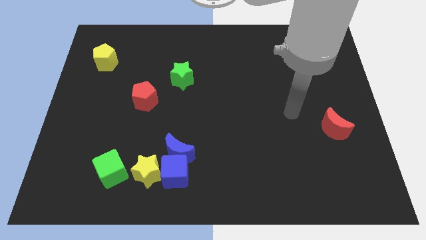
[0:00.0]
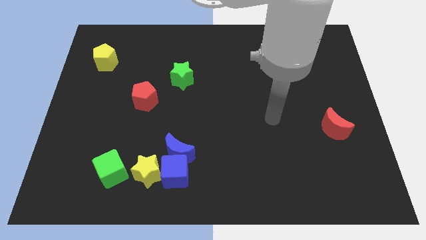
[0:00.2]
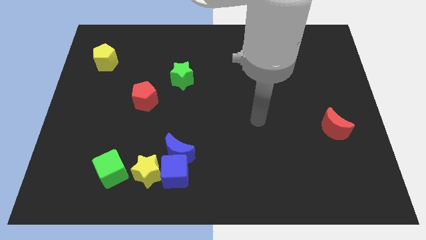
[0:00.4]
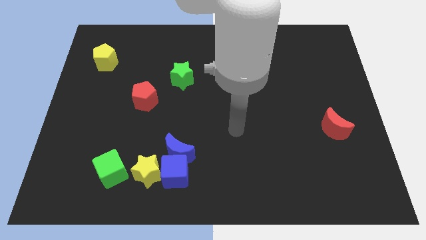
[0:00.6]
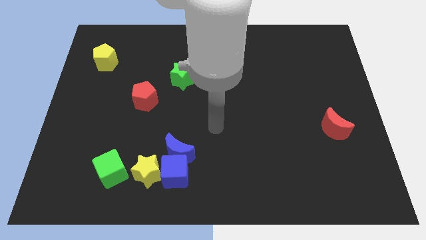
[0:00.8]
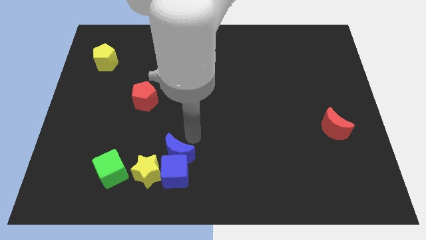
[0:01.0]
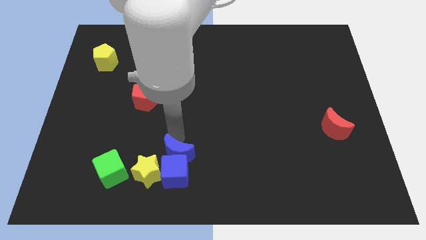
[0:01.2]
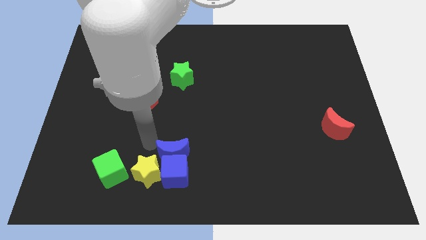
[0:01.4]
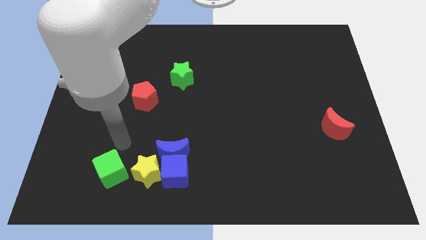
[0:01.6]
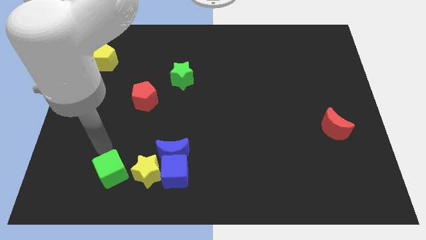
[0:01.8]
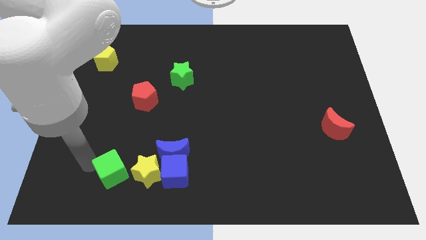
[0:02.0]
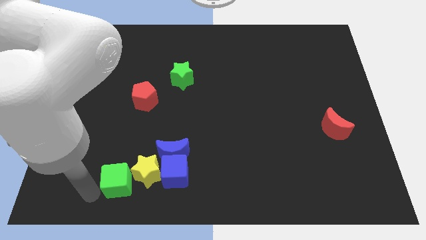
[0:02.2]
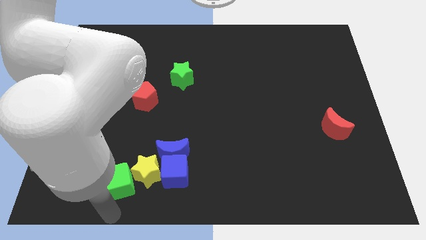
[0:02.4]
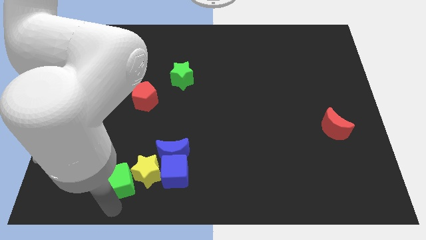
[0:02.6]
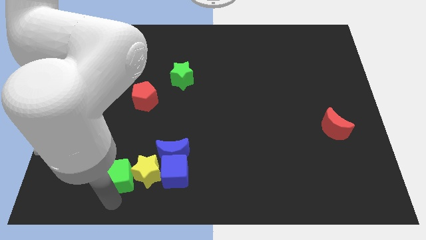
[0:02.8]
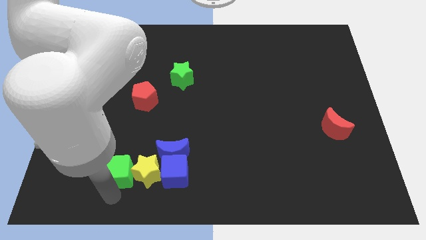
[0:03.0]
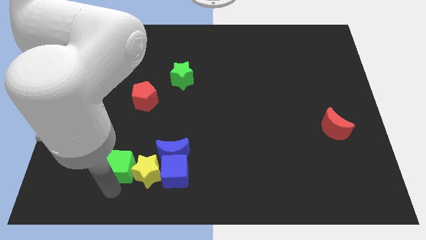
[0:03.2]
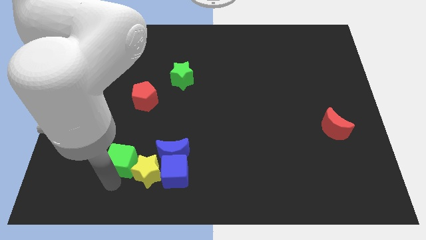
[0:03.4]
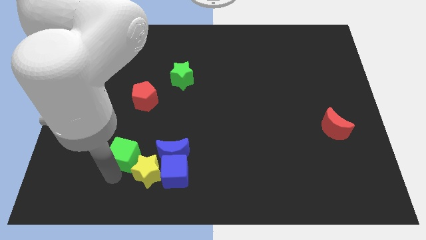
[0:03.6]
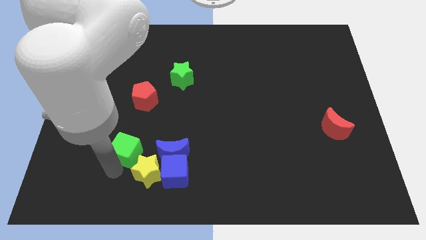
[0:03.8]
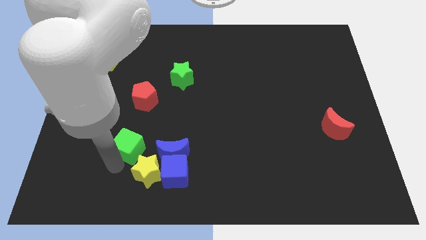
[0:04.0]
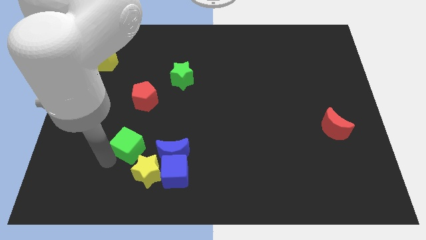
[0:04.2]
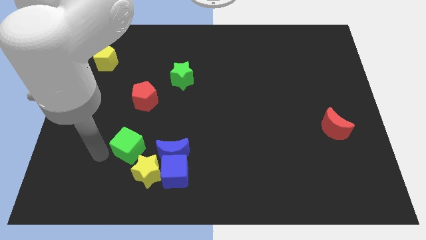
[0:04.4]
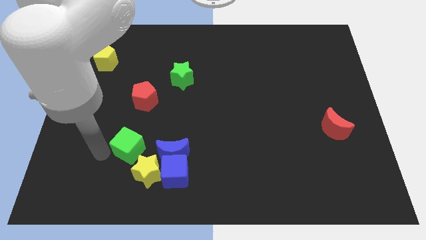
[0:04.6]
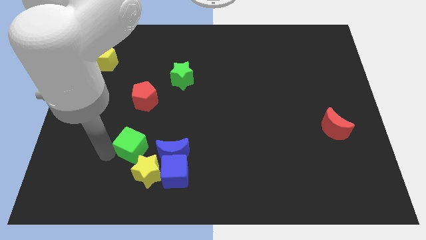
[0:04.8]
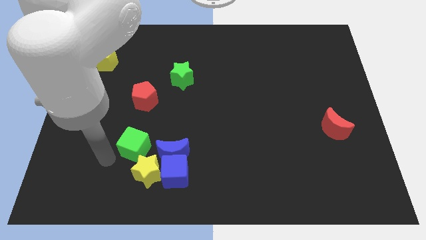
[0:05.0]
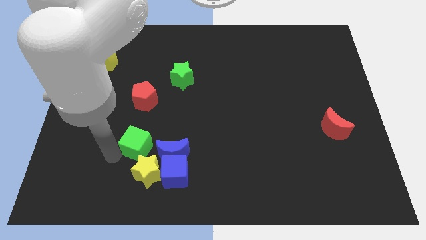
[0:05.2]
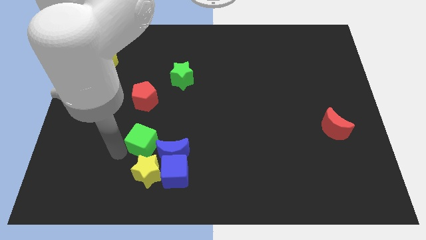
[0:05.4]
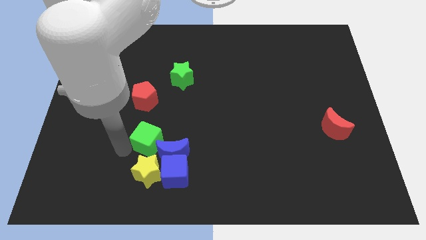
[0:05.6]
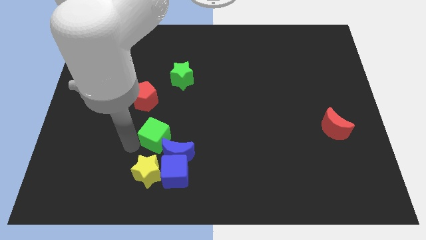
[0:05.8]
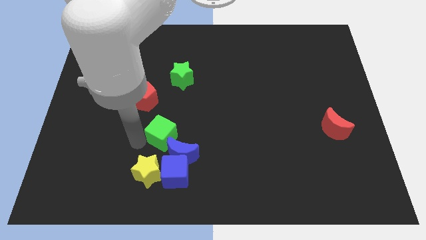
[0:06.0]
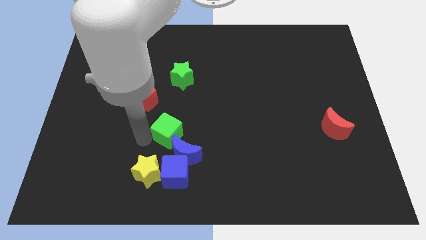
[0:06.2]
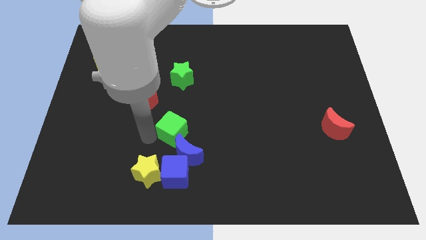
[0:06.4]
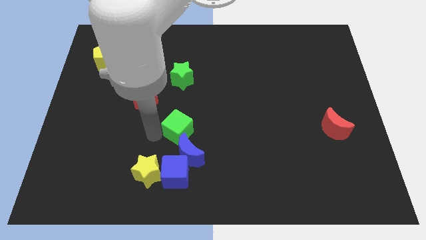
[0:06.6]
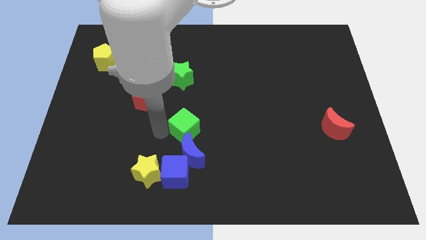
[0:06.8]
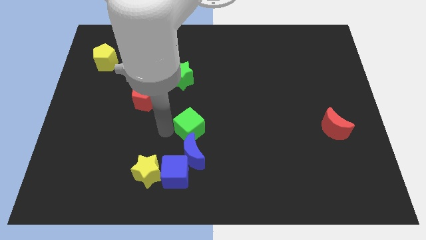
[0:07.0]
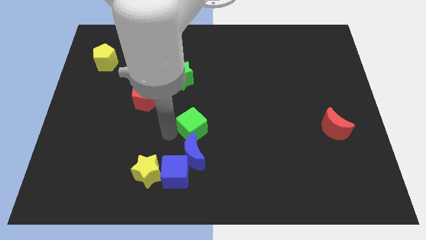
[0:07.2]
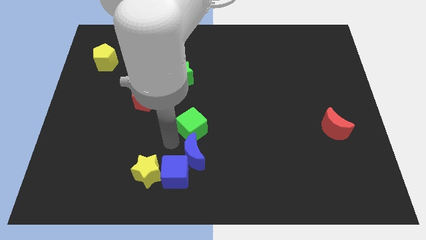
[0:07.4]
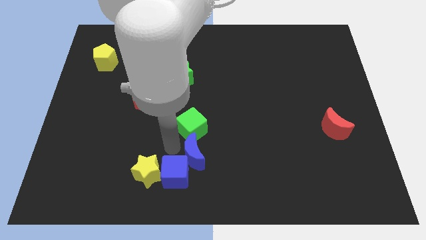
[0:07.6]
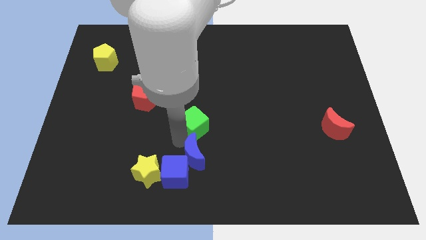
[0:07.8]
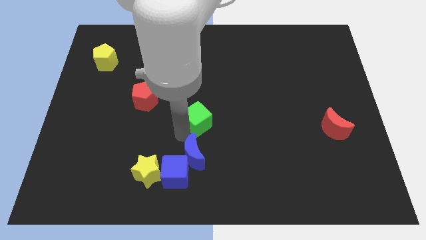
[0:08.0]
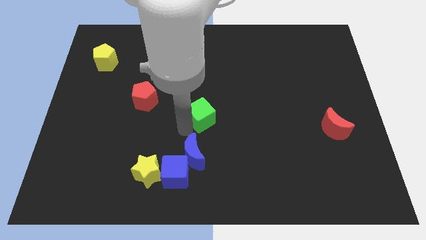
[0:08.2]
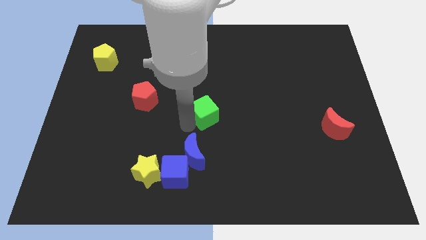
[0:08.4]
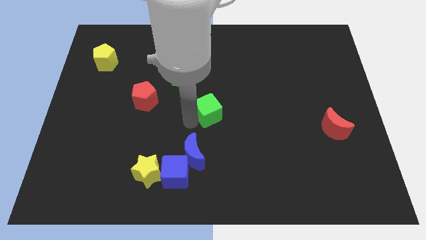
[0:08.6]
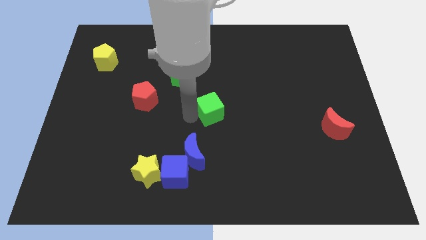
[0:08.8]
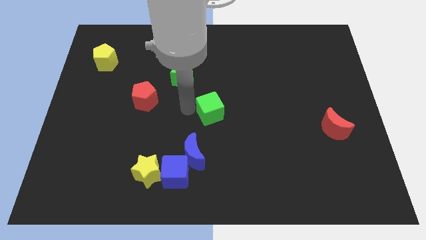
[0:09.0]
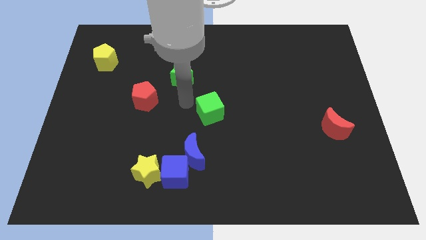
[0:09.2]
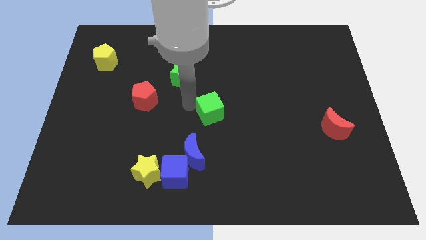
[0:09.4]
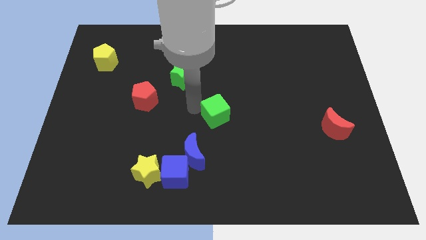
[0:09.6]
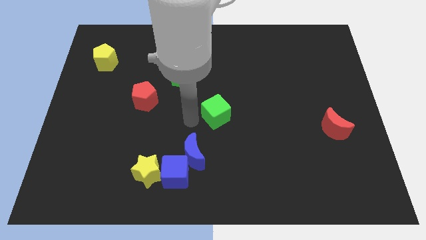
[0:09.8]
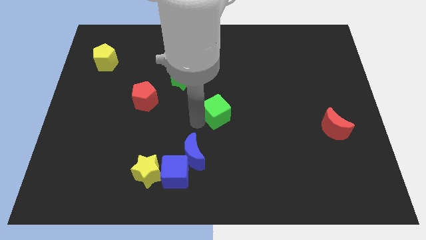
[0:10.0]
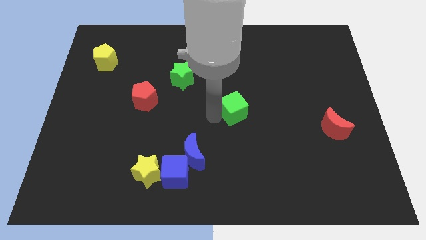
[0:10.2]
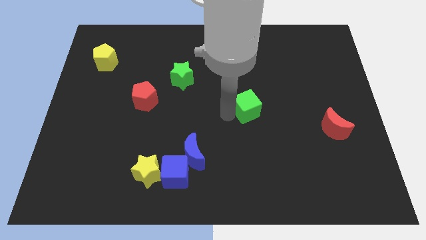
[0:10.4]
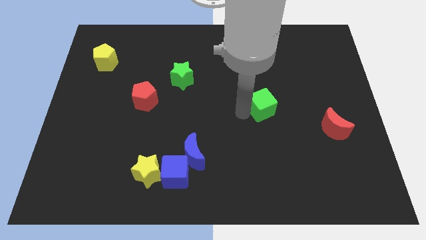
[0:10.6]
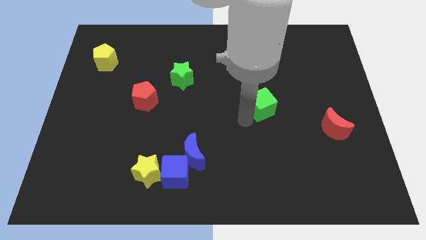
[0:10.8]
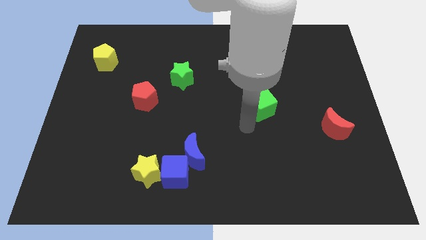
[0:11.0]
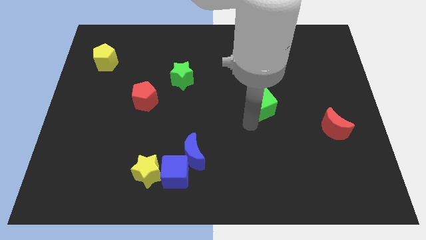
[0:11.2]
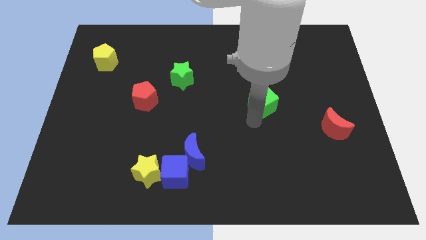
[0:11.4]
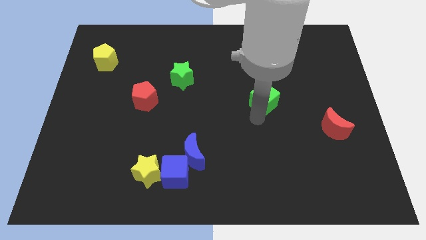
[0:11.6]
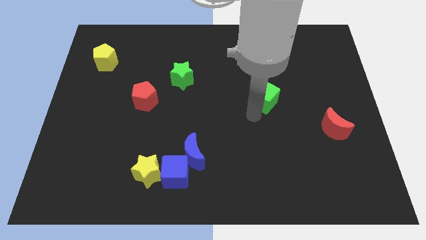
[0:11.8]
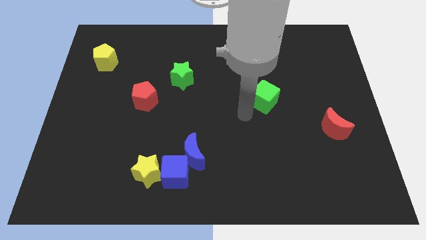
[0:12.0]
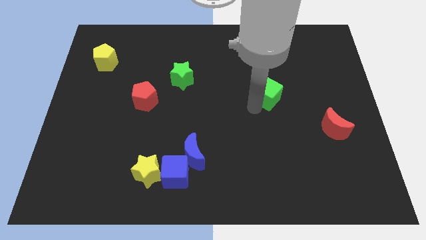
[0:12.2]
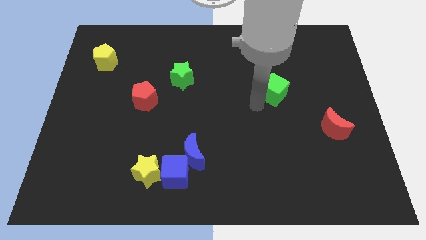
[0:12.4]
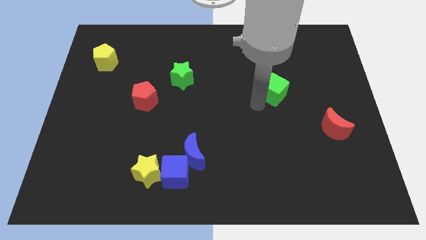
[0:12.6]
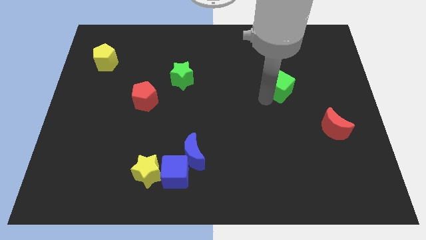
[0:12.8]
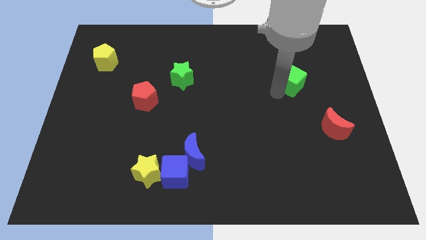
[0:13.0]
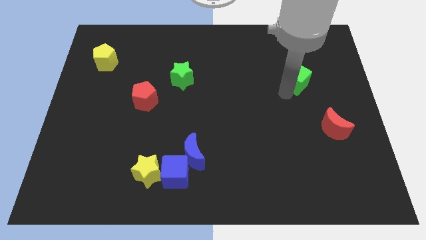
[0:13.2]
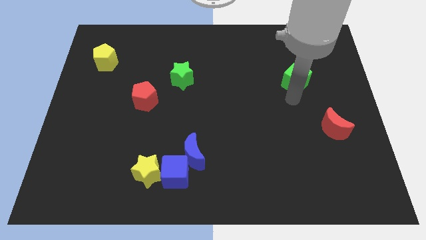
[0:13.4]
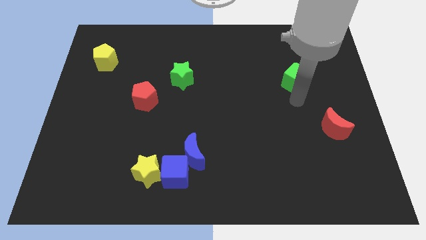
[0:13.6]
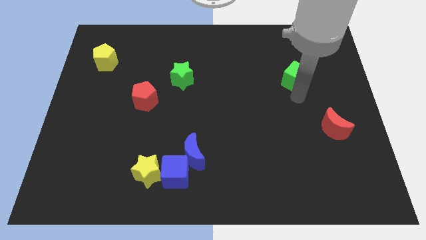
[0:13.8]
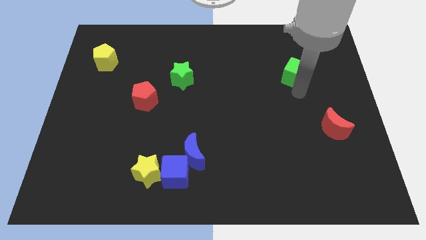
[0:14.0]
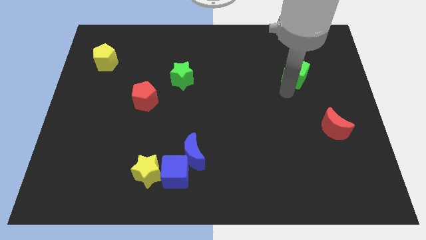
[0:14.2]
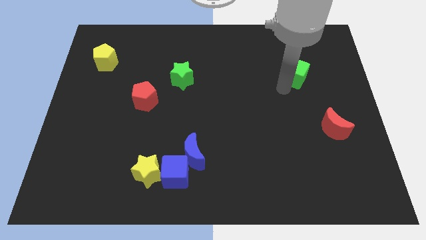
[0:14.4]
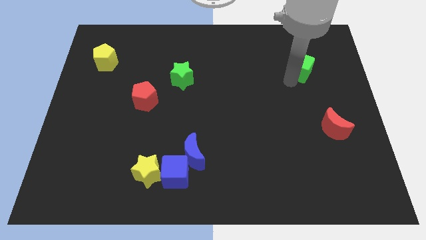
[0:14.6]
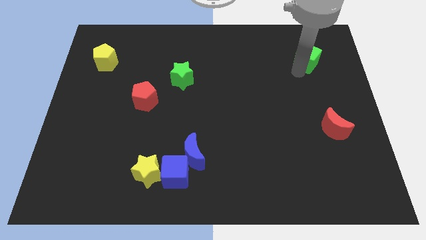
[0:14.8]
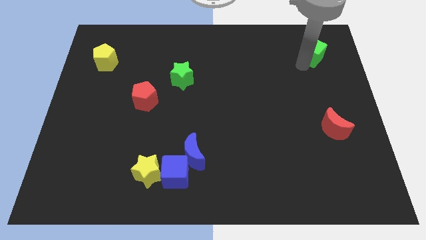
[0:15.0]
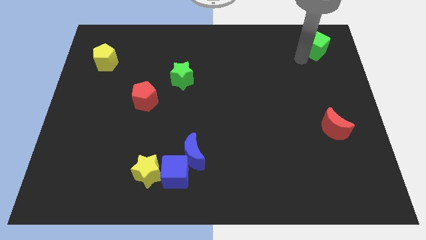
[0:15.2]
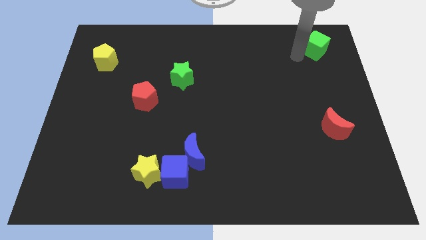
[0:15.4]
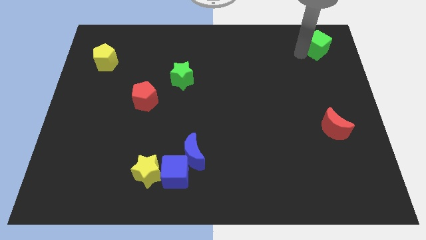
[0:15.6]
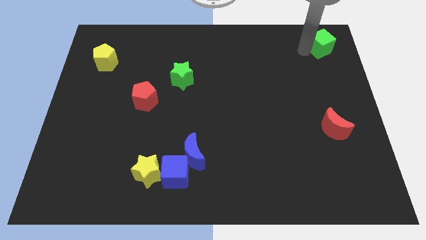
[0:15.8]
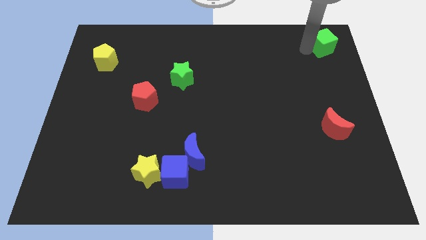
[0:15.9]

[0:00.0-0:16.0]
move the green cube to the top right
